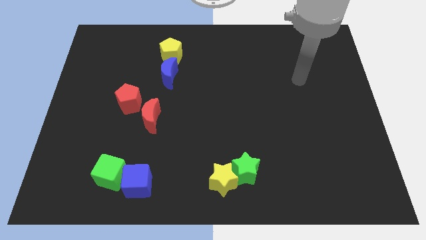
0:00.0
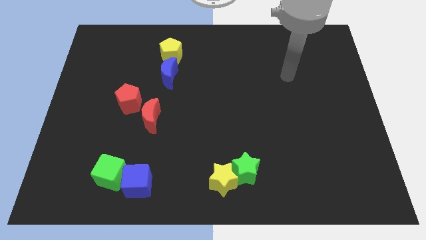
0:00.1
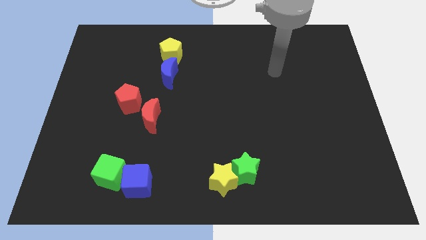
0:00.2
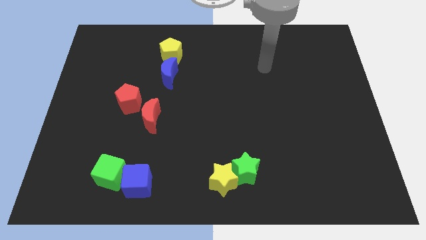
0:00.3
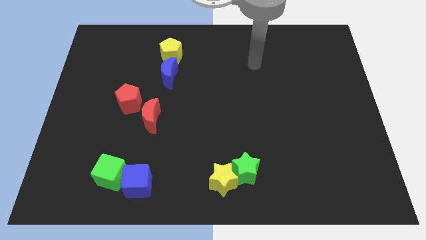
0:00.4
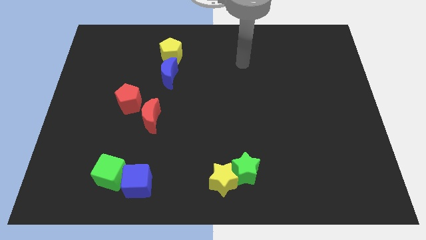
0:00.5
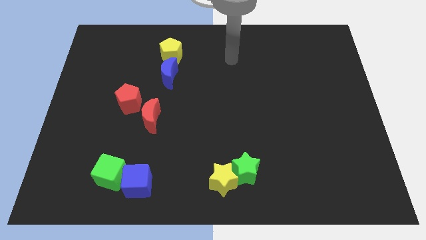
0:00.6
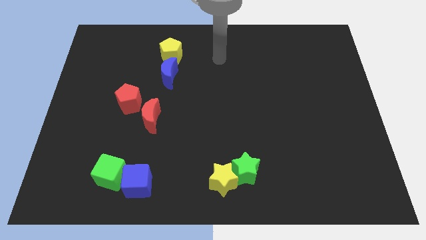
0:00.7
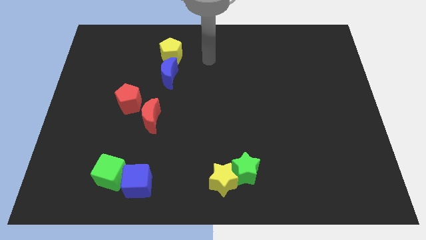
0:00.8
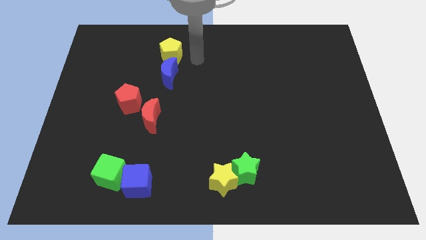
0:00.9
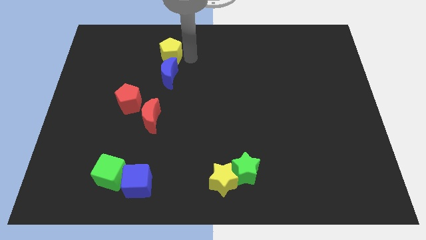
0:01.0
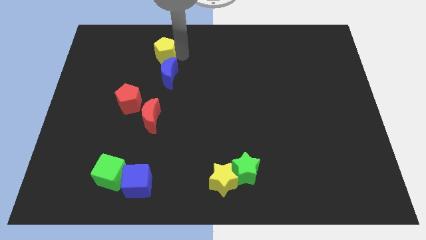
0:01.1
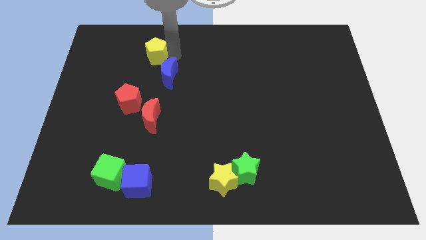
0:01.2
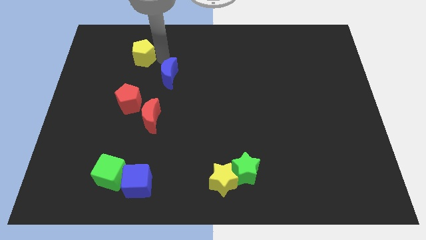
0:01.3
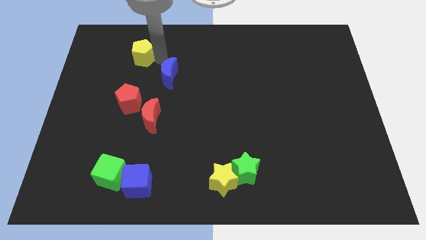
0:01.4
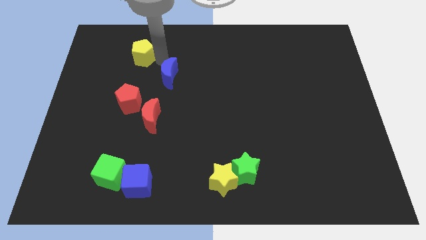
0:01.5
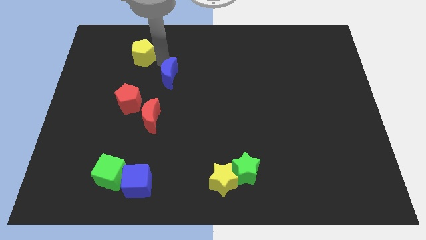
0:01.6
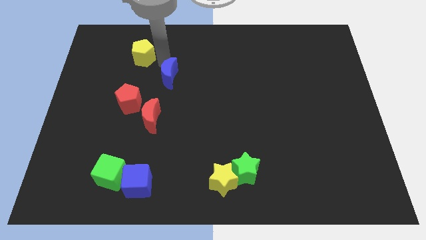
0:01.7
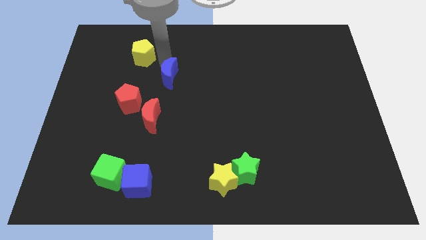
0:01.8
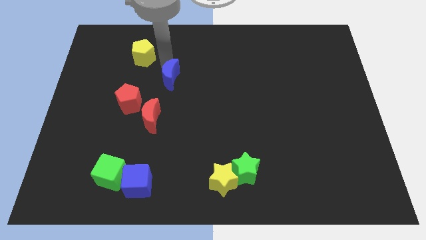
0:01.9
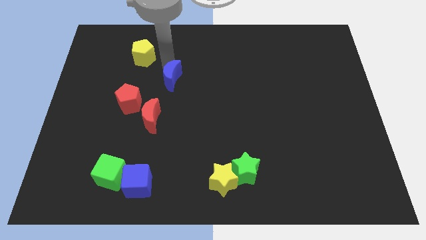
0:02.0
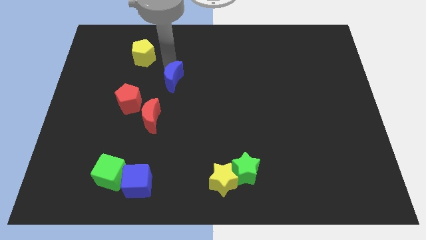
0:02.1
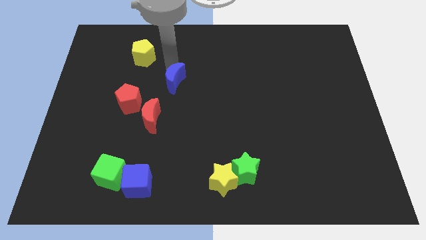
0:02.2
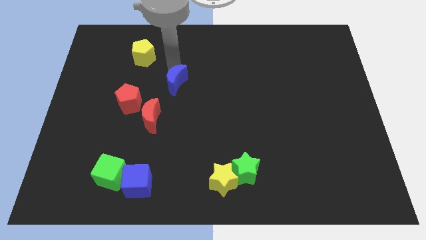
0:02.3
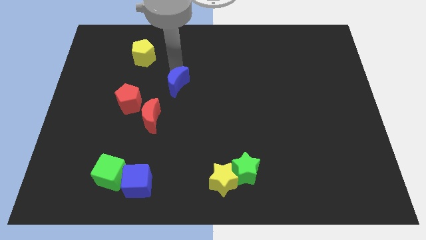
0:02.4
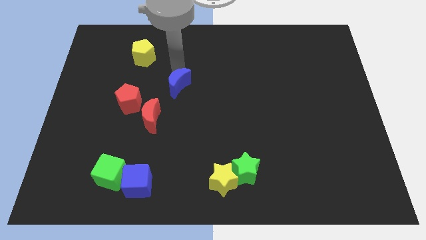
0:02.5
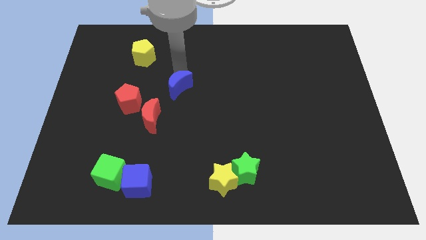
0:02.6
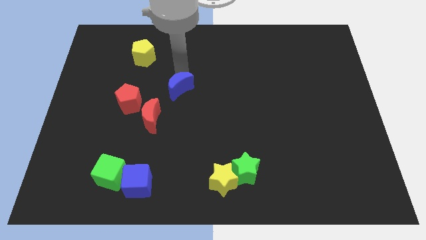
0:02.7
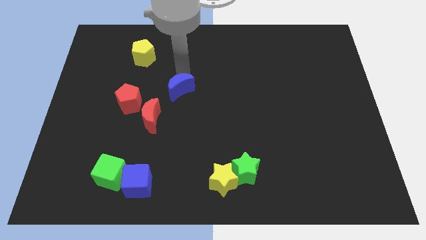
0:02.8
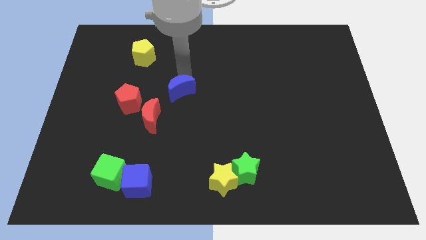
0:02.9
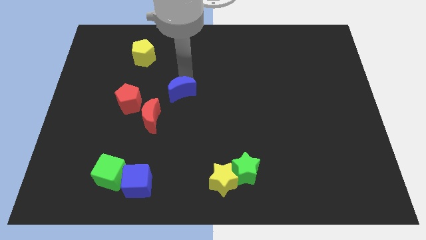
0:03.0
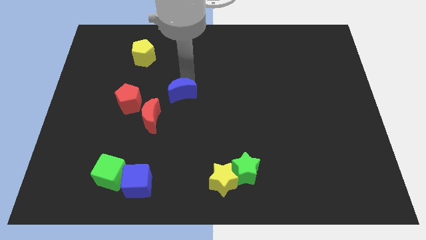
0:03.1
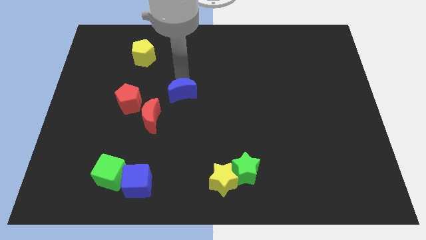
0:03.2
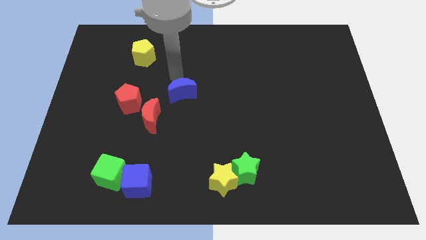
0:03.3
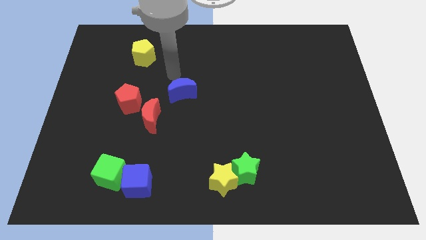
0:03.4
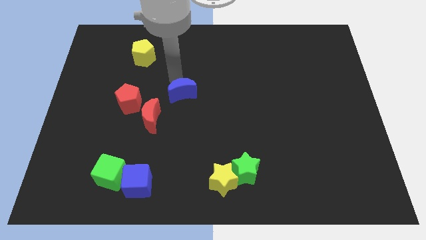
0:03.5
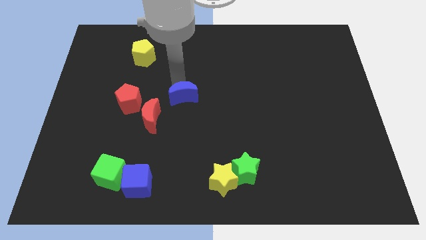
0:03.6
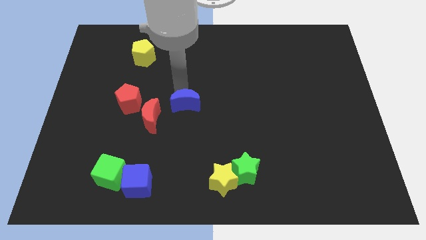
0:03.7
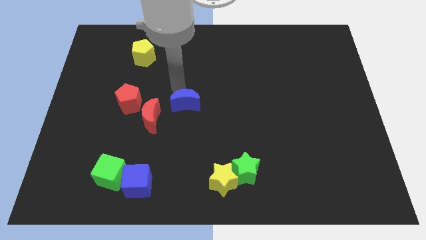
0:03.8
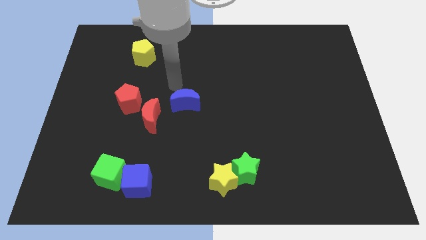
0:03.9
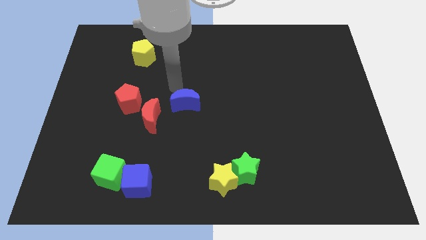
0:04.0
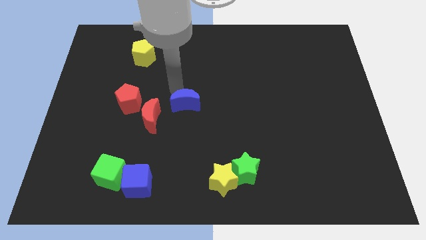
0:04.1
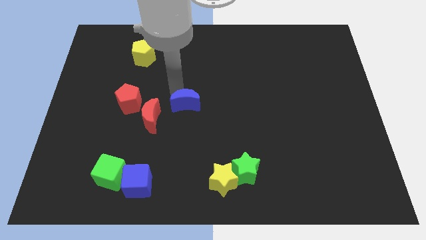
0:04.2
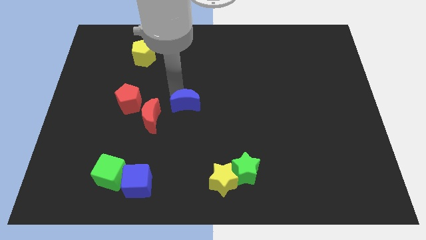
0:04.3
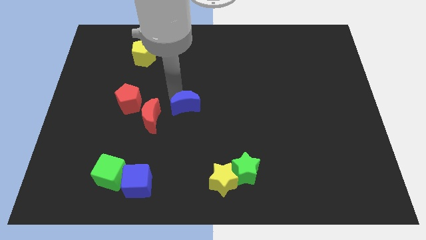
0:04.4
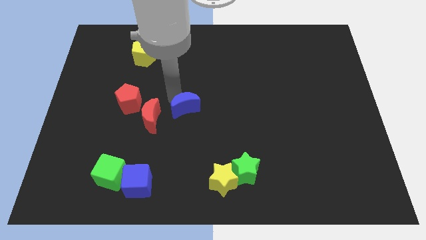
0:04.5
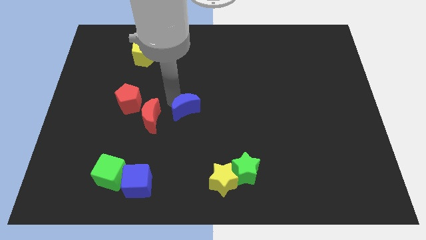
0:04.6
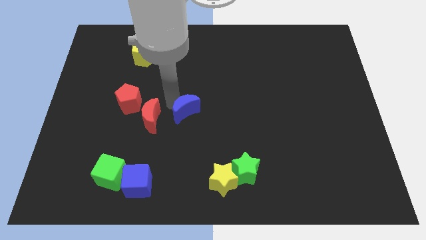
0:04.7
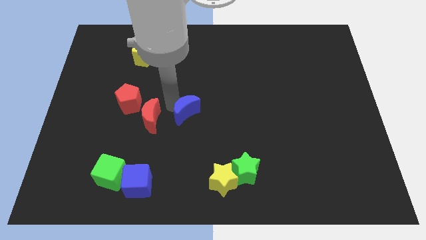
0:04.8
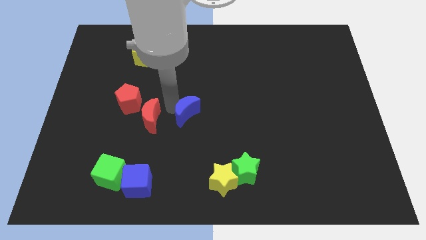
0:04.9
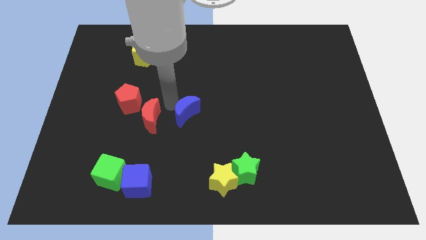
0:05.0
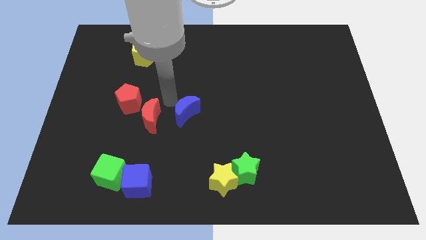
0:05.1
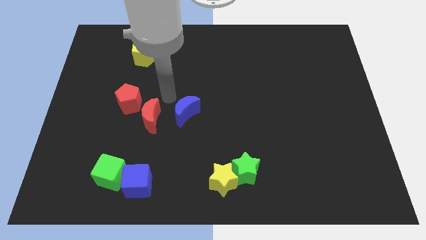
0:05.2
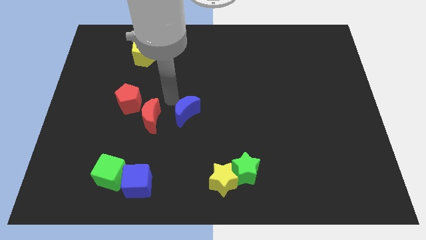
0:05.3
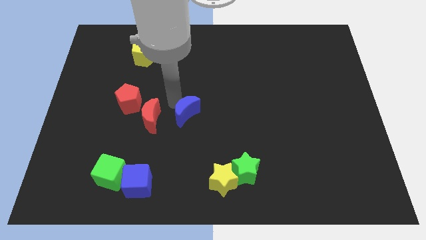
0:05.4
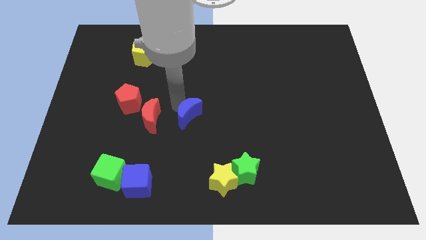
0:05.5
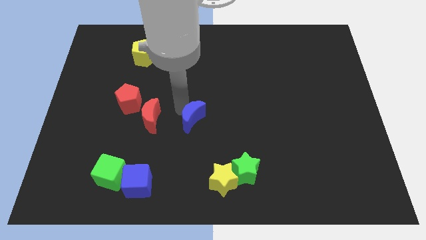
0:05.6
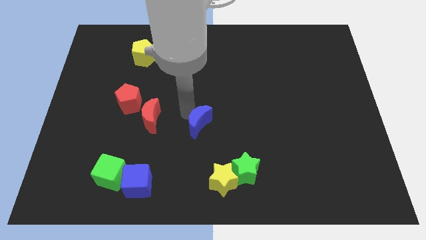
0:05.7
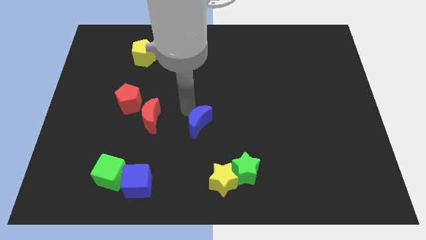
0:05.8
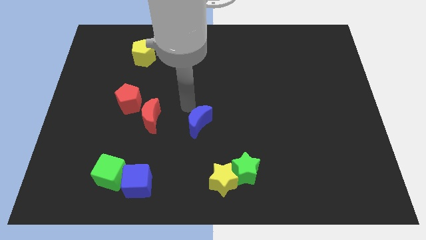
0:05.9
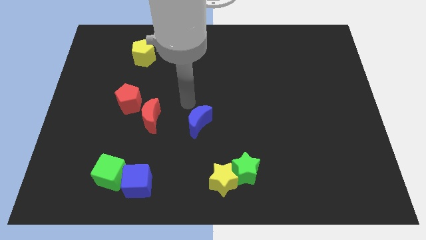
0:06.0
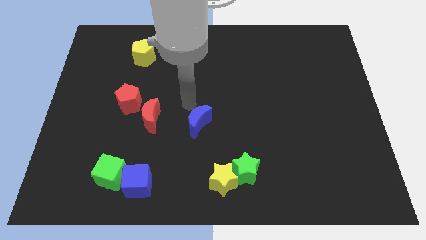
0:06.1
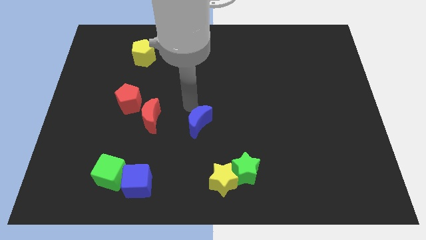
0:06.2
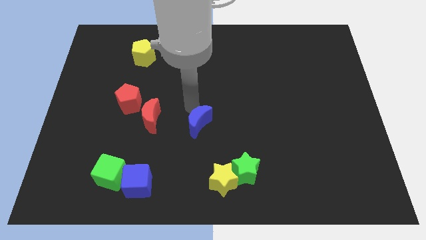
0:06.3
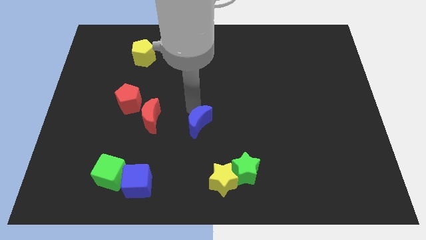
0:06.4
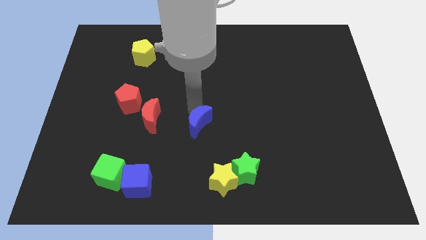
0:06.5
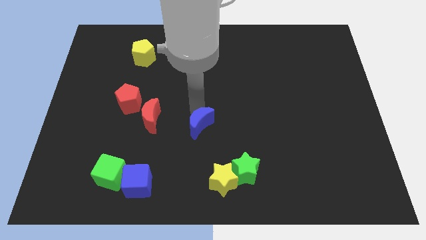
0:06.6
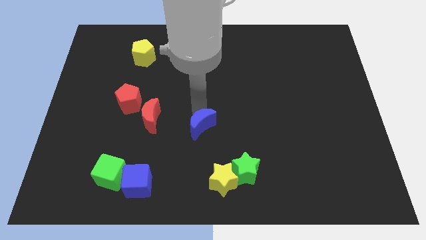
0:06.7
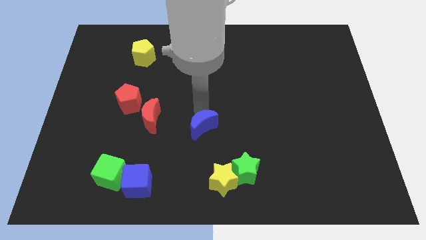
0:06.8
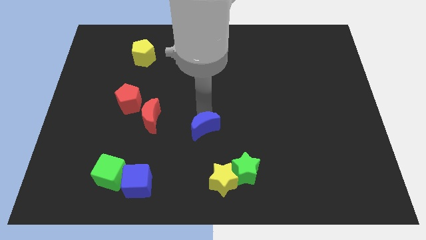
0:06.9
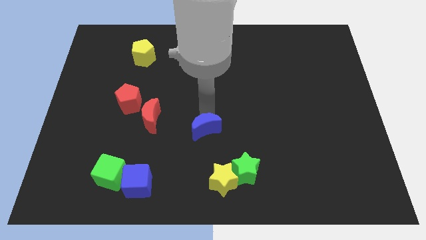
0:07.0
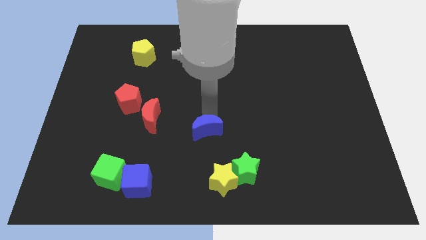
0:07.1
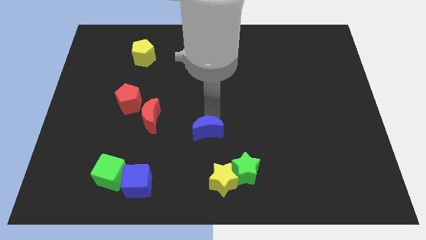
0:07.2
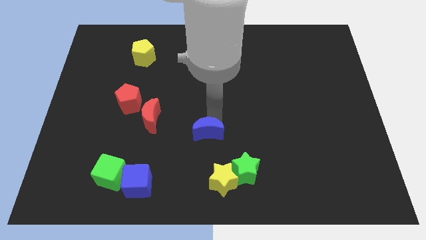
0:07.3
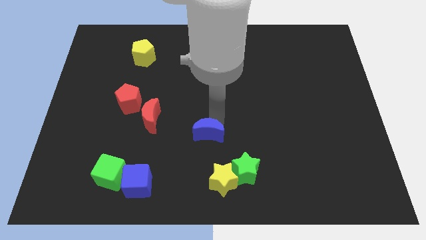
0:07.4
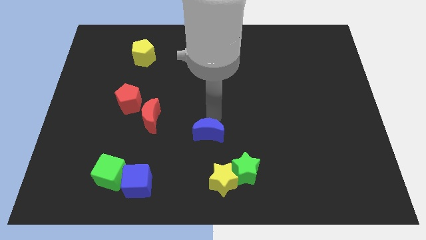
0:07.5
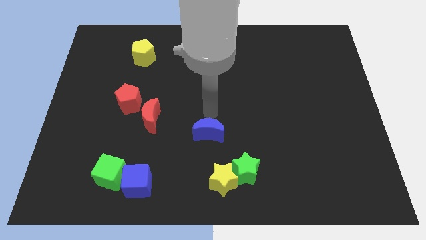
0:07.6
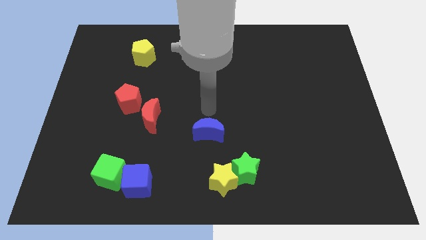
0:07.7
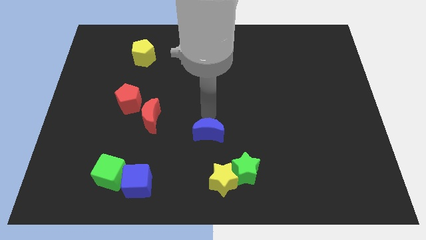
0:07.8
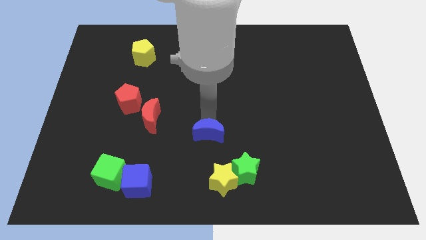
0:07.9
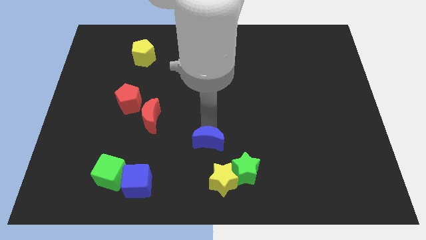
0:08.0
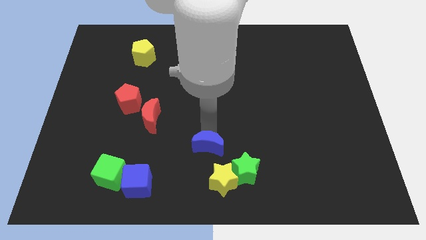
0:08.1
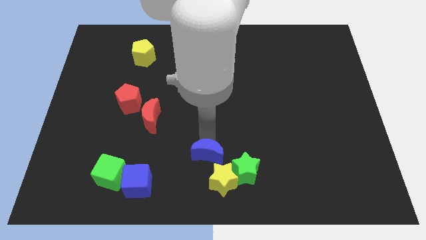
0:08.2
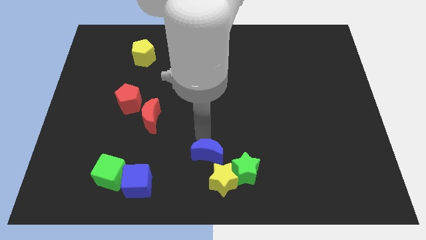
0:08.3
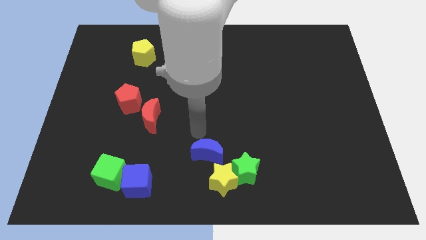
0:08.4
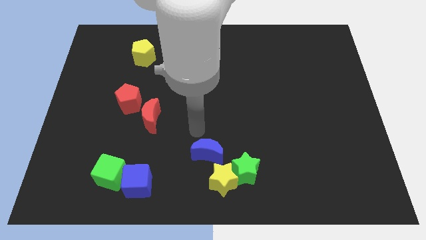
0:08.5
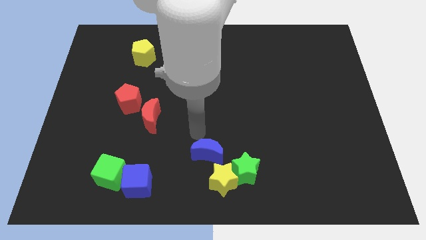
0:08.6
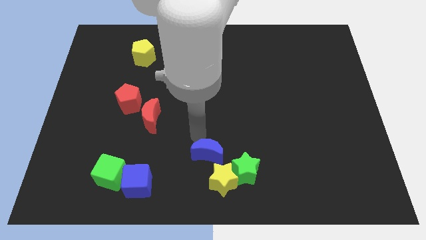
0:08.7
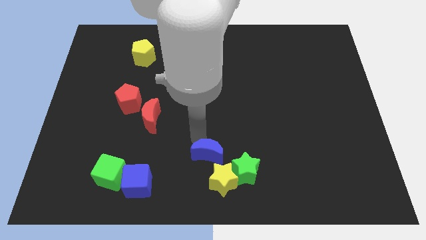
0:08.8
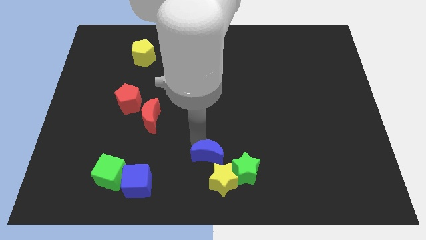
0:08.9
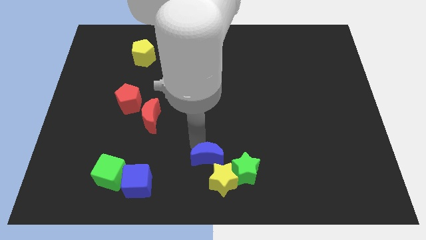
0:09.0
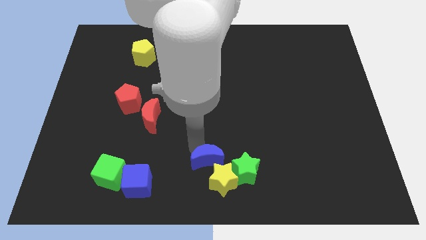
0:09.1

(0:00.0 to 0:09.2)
move the blue moon to the yellow star
